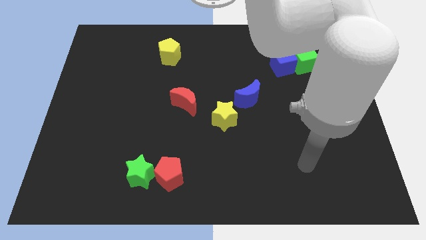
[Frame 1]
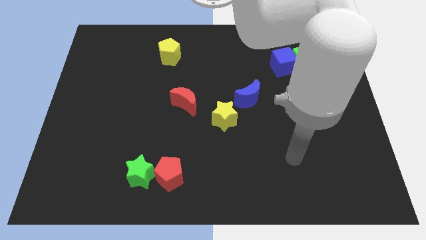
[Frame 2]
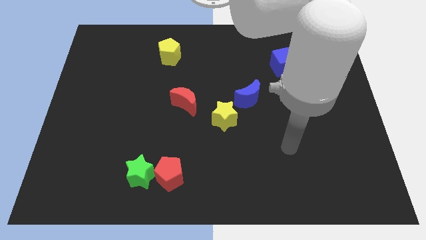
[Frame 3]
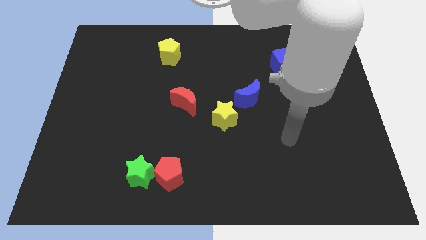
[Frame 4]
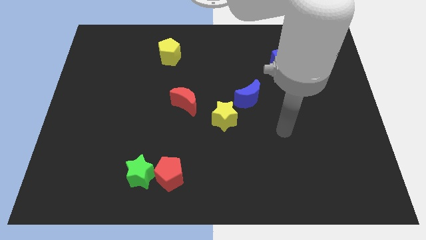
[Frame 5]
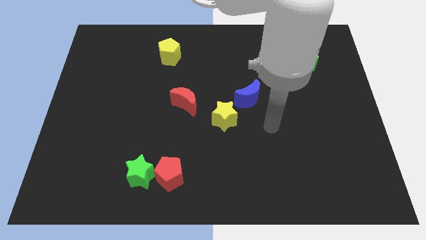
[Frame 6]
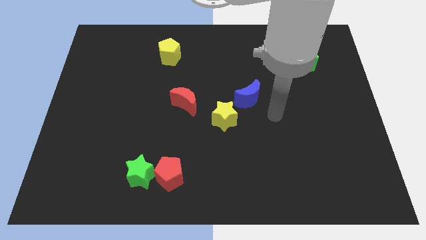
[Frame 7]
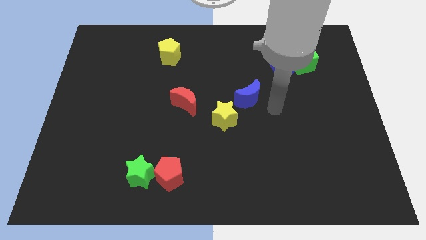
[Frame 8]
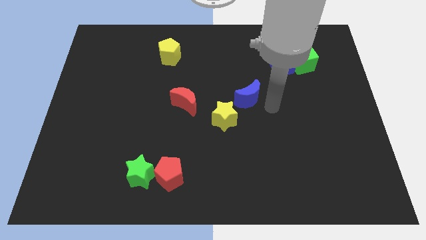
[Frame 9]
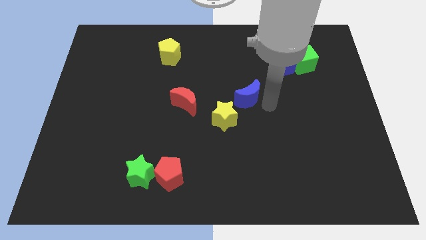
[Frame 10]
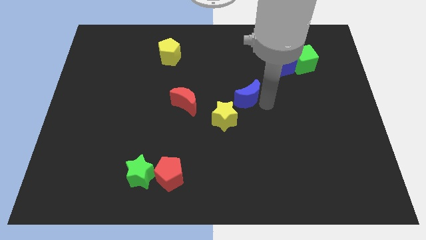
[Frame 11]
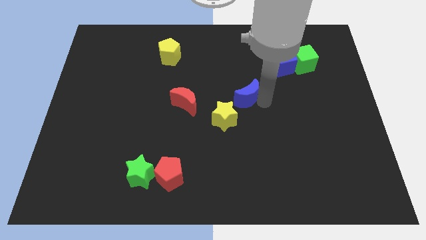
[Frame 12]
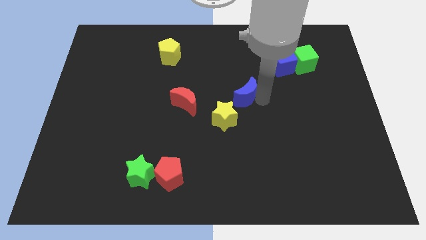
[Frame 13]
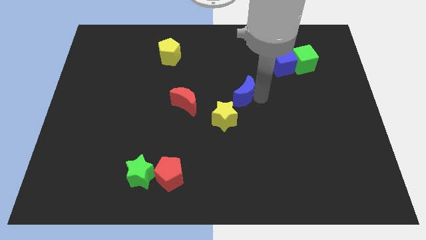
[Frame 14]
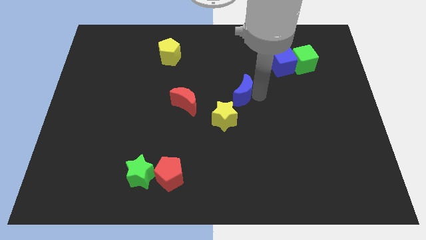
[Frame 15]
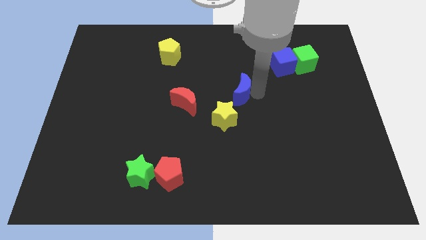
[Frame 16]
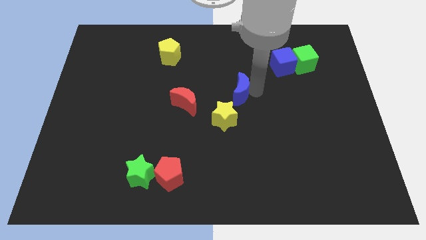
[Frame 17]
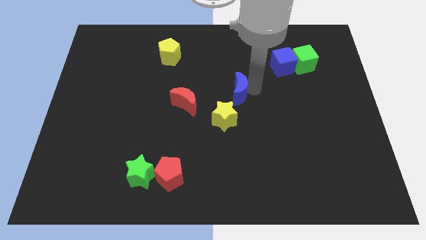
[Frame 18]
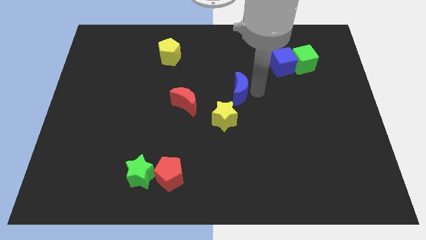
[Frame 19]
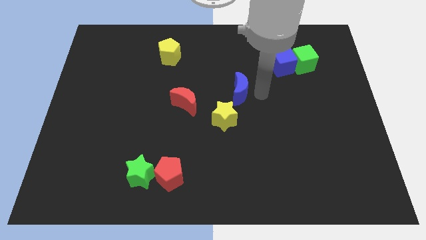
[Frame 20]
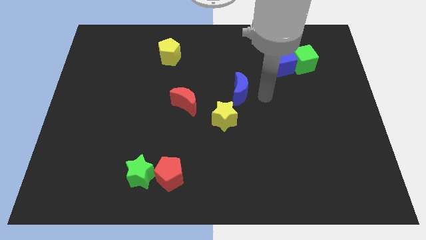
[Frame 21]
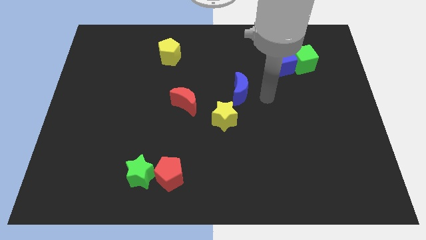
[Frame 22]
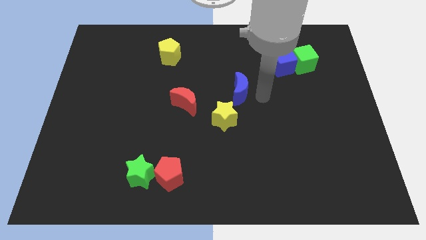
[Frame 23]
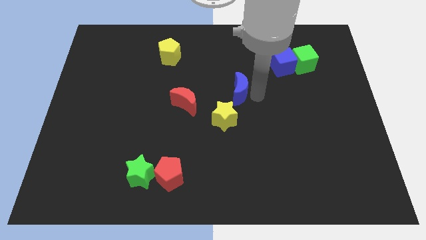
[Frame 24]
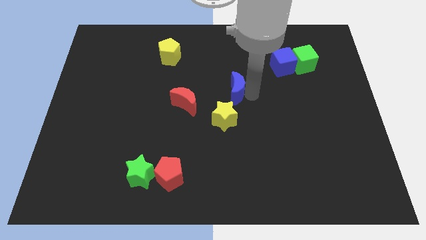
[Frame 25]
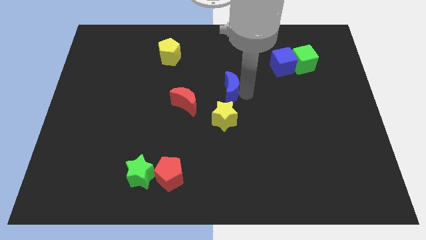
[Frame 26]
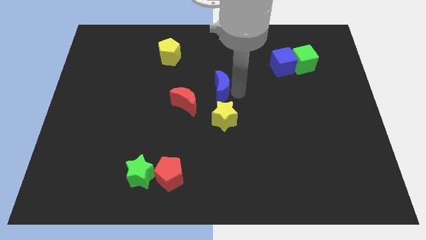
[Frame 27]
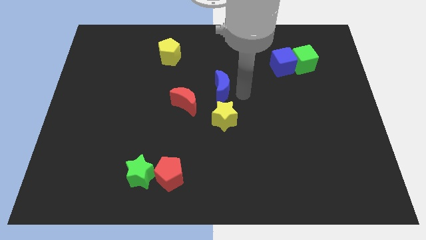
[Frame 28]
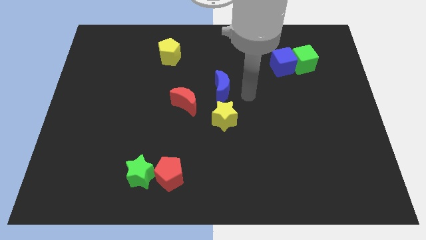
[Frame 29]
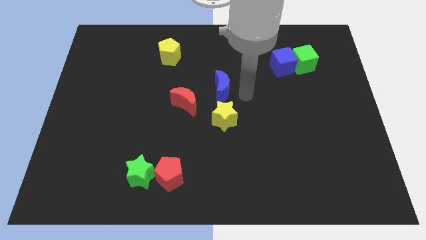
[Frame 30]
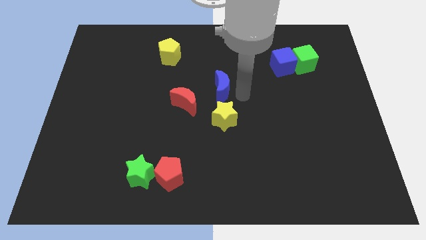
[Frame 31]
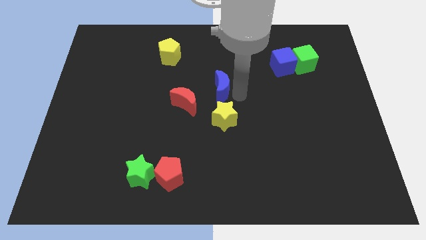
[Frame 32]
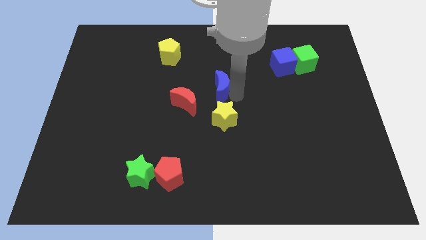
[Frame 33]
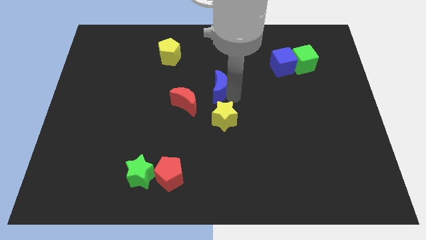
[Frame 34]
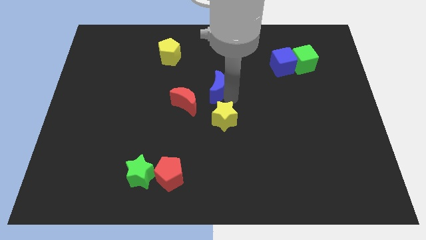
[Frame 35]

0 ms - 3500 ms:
push the blue moon a little bit left

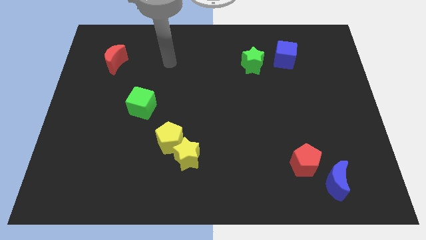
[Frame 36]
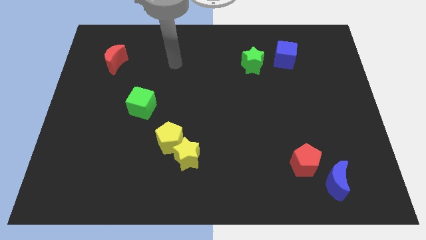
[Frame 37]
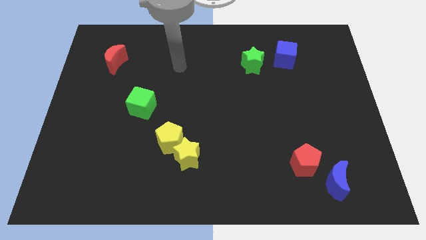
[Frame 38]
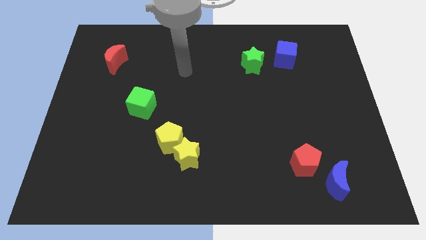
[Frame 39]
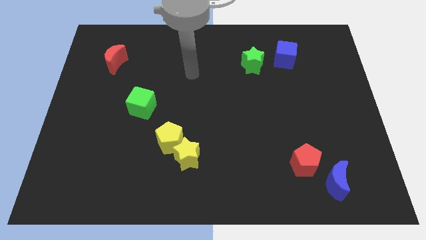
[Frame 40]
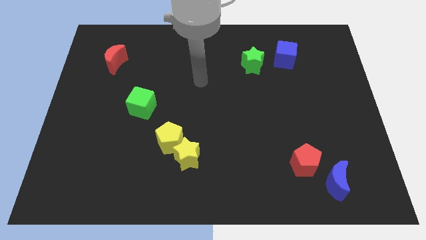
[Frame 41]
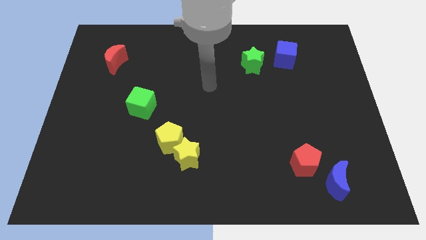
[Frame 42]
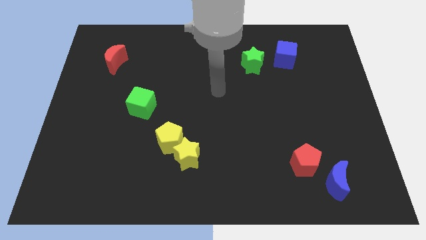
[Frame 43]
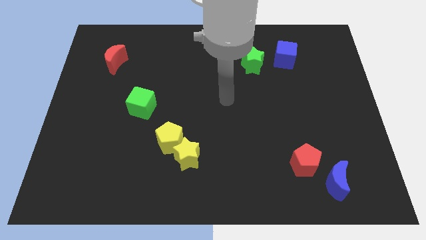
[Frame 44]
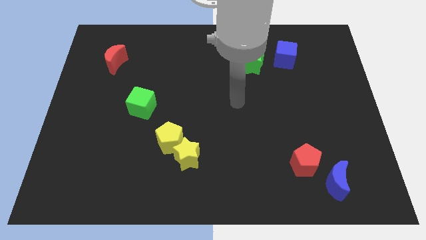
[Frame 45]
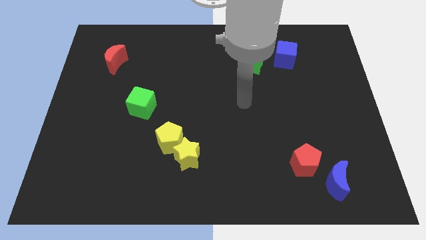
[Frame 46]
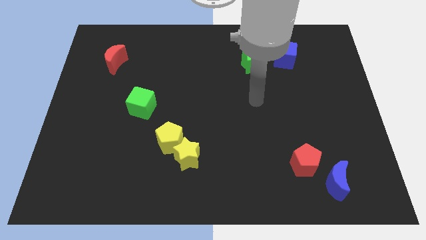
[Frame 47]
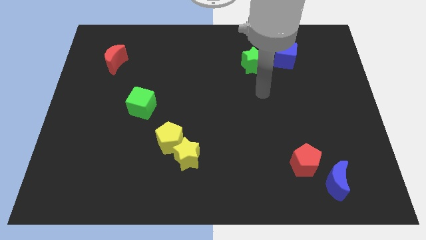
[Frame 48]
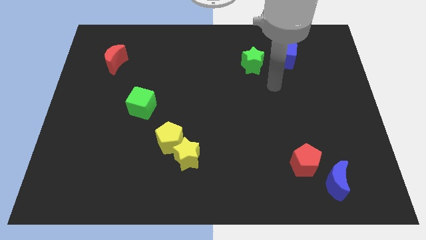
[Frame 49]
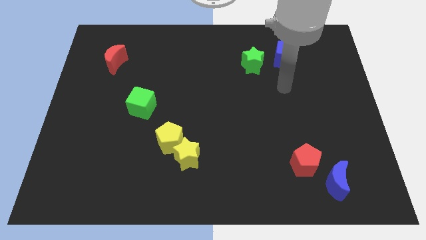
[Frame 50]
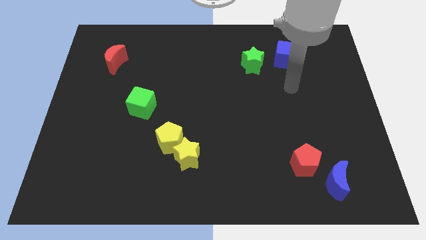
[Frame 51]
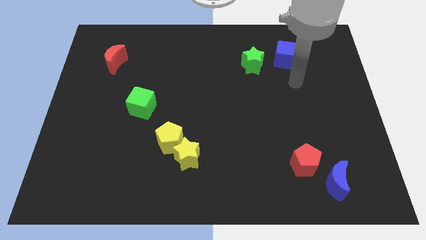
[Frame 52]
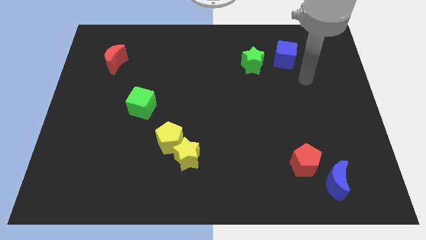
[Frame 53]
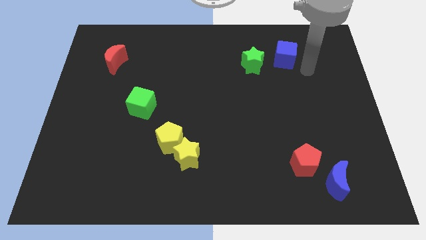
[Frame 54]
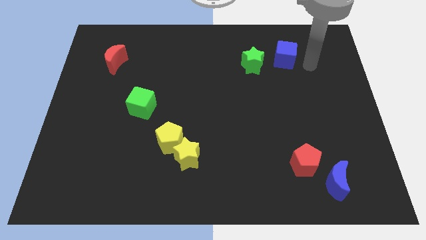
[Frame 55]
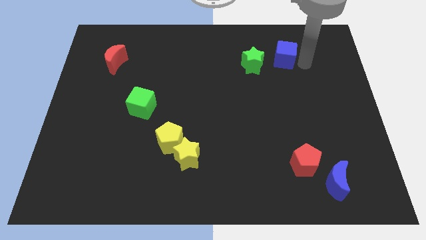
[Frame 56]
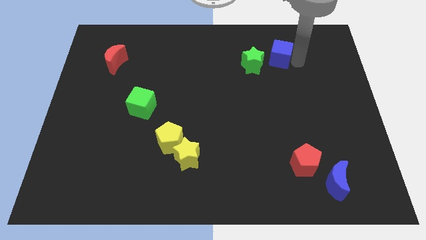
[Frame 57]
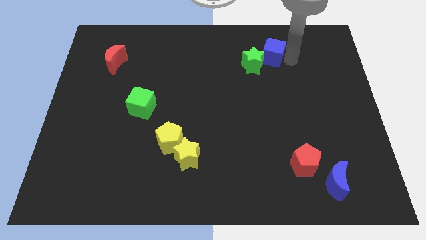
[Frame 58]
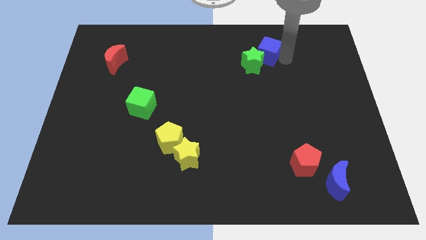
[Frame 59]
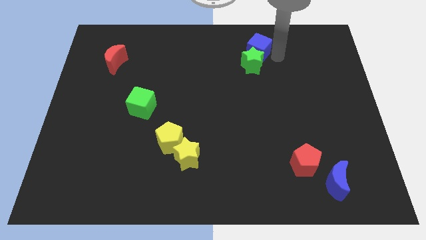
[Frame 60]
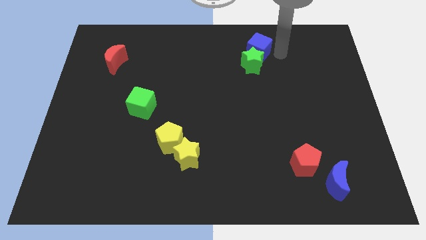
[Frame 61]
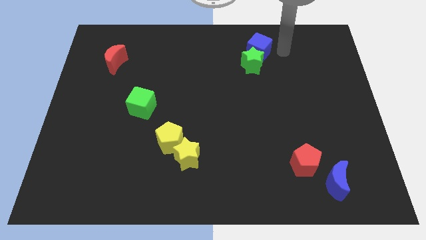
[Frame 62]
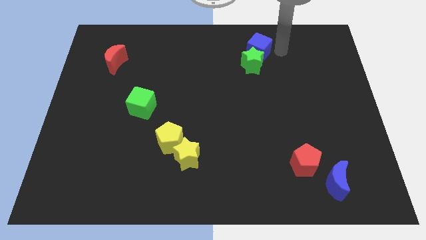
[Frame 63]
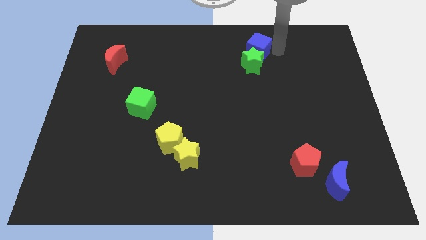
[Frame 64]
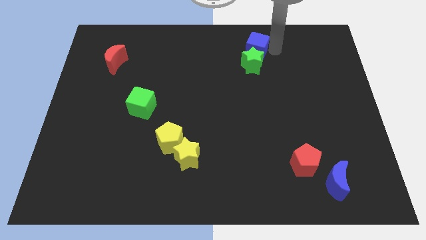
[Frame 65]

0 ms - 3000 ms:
slide the blue cube left somewhat

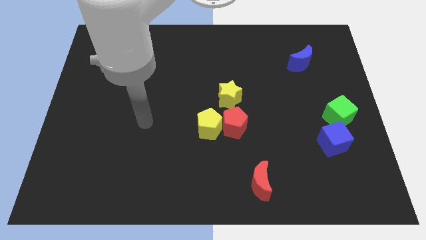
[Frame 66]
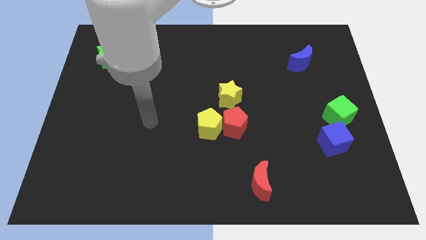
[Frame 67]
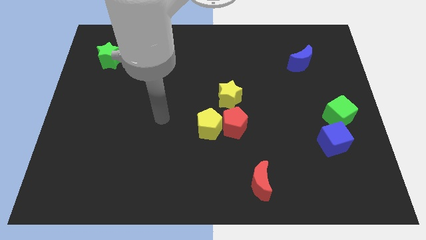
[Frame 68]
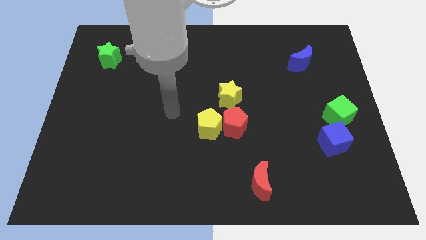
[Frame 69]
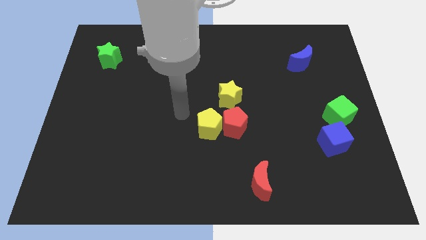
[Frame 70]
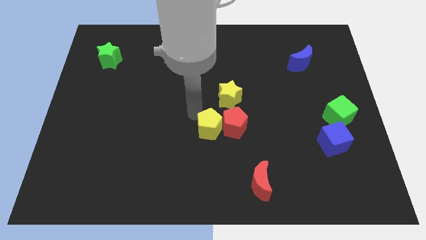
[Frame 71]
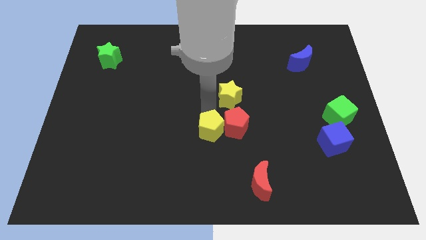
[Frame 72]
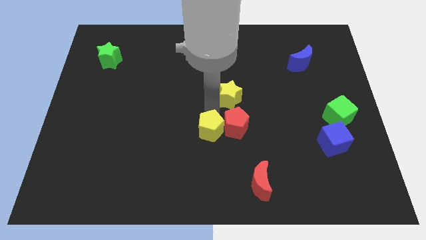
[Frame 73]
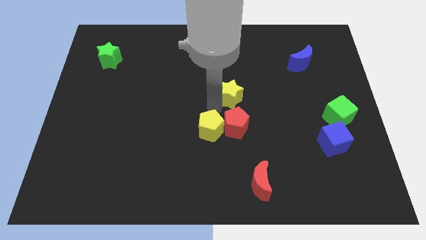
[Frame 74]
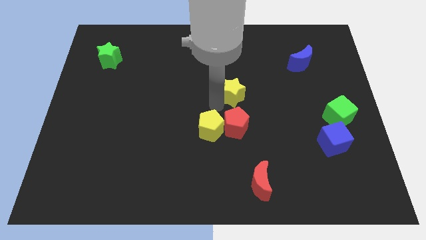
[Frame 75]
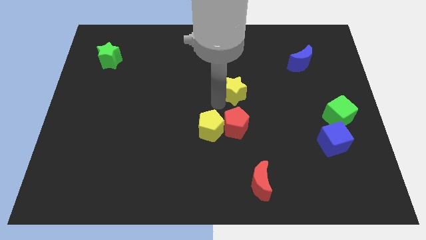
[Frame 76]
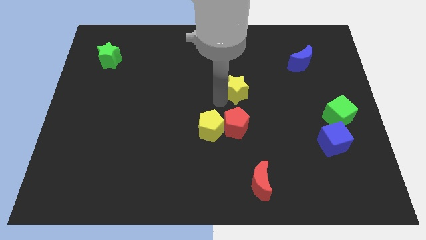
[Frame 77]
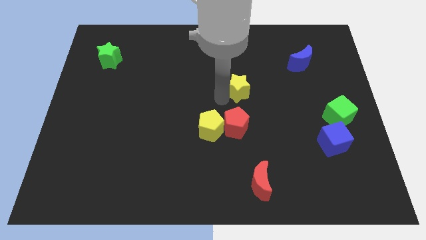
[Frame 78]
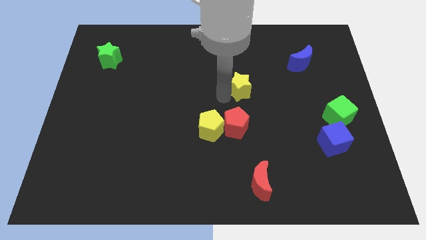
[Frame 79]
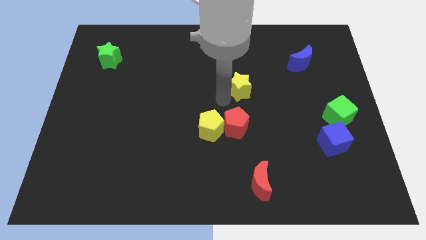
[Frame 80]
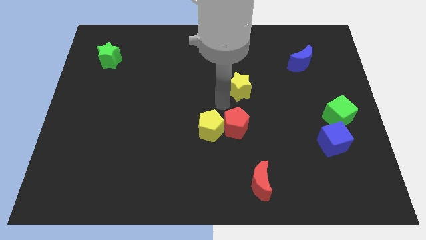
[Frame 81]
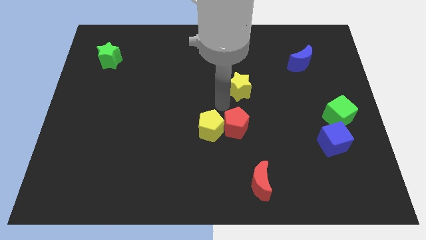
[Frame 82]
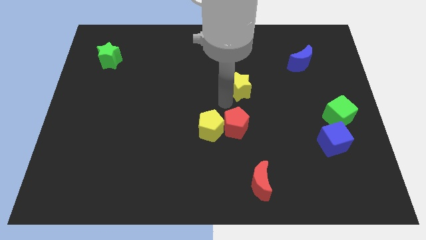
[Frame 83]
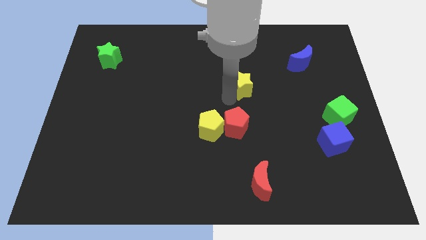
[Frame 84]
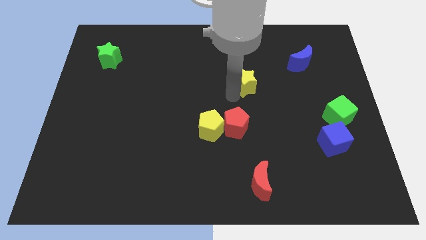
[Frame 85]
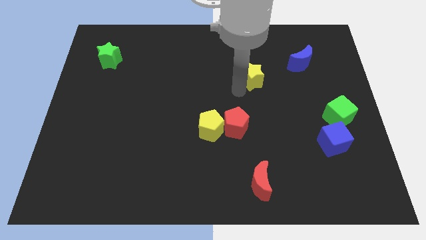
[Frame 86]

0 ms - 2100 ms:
slightly move the yellow star up and to the right
